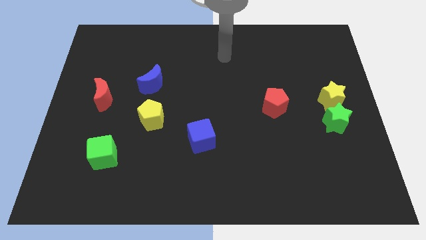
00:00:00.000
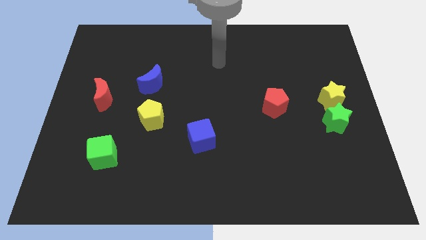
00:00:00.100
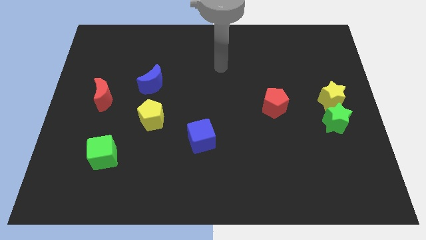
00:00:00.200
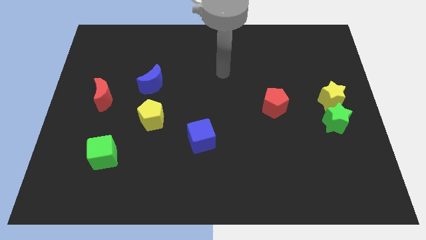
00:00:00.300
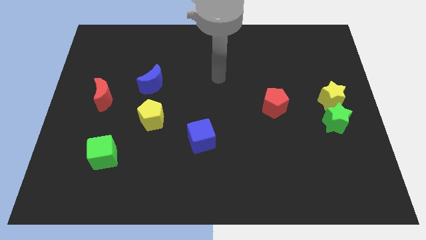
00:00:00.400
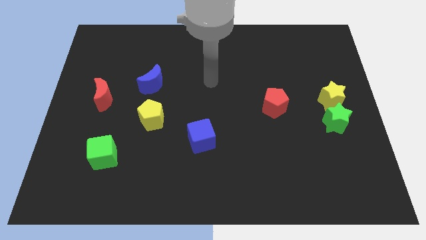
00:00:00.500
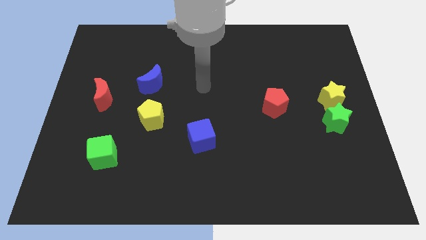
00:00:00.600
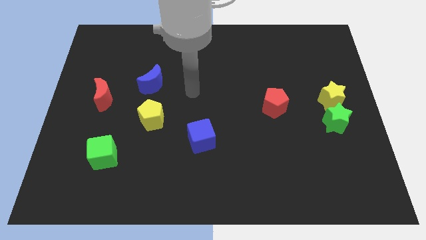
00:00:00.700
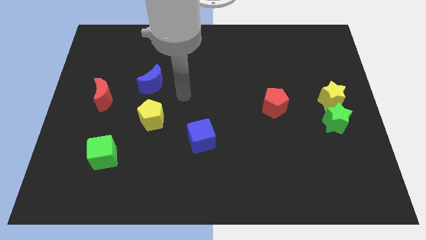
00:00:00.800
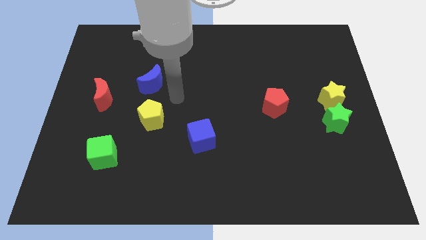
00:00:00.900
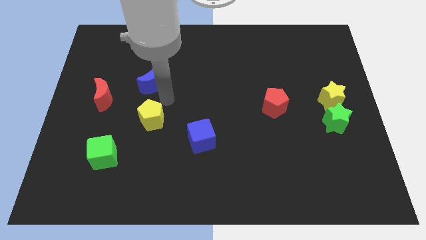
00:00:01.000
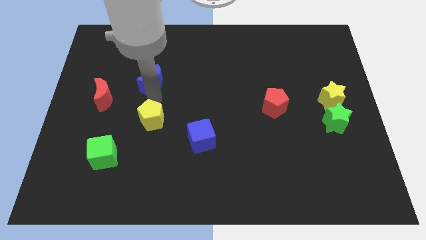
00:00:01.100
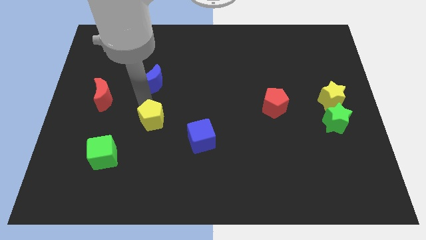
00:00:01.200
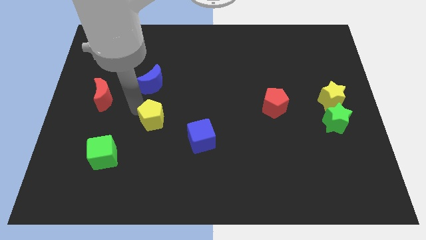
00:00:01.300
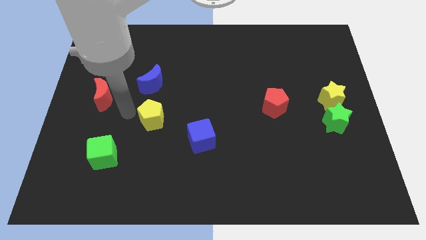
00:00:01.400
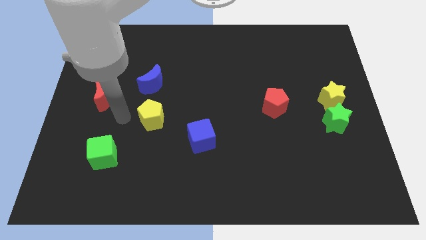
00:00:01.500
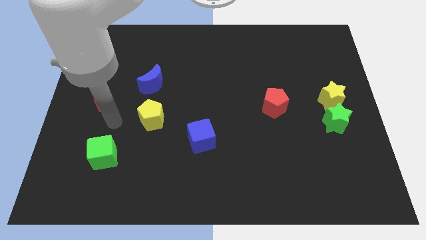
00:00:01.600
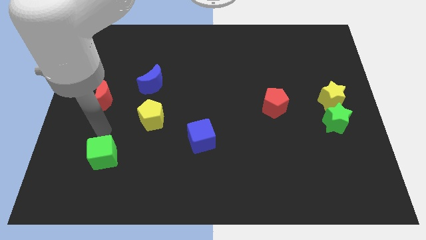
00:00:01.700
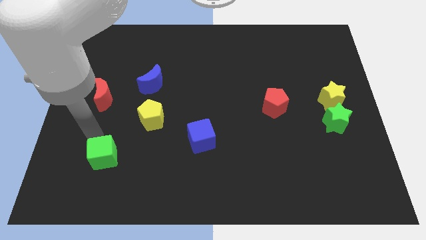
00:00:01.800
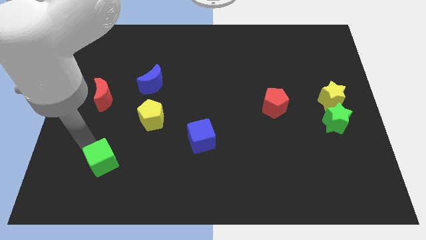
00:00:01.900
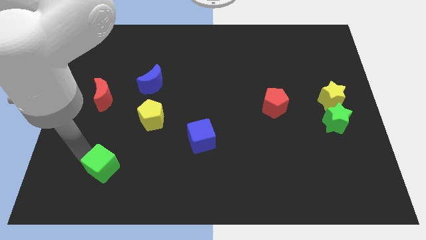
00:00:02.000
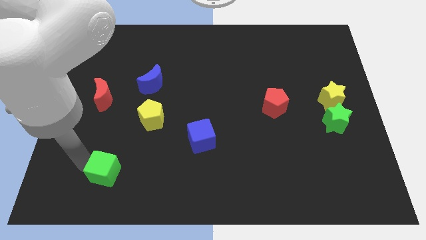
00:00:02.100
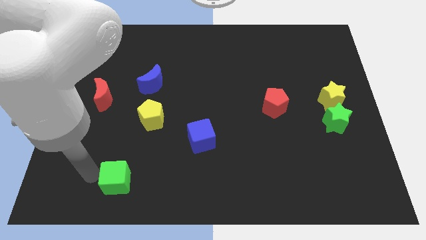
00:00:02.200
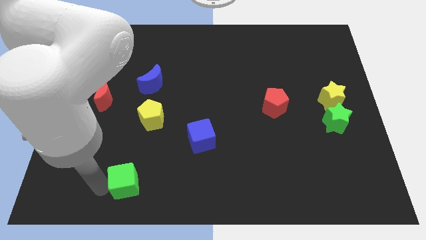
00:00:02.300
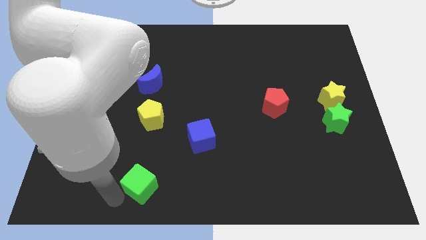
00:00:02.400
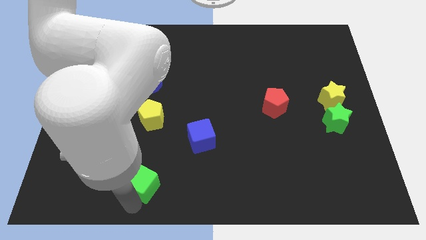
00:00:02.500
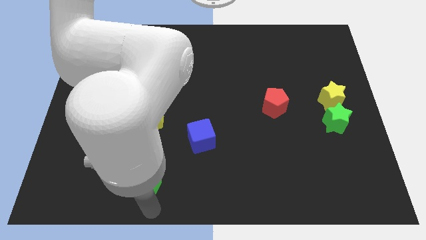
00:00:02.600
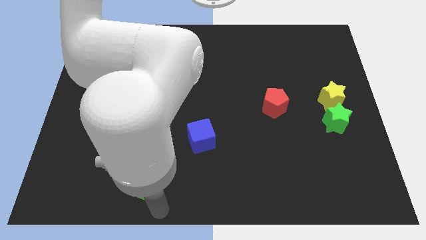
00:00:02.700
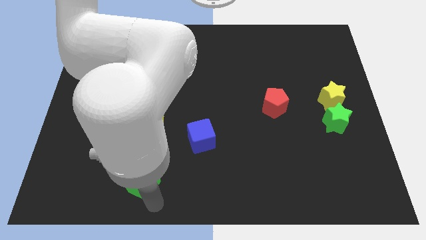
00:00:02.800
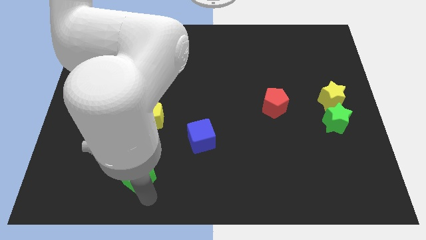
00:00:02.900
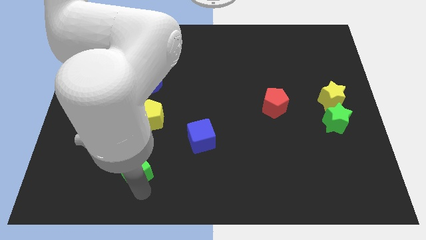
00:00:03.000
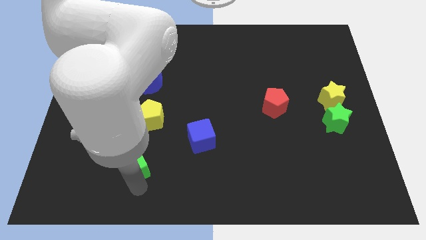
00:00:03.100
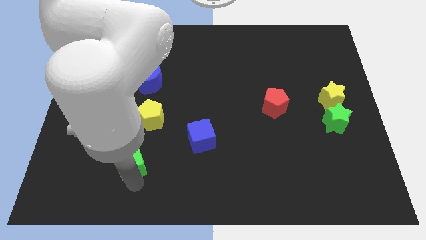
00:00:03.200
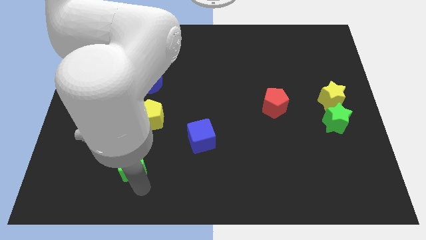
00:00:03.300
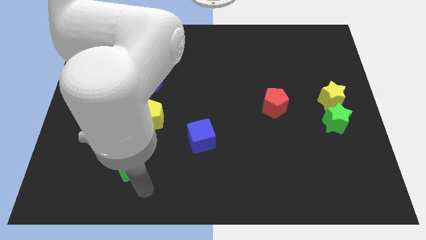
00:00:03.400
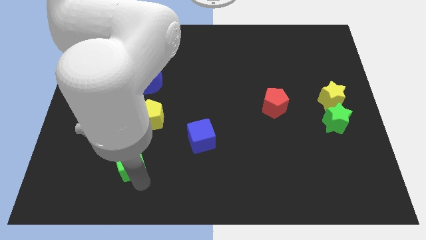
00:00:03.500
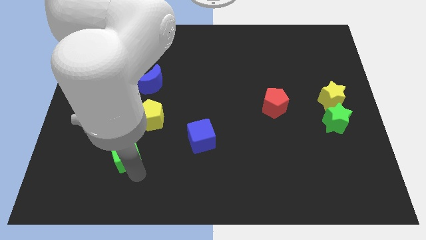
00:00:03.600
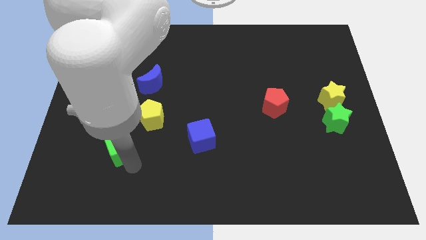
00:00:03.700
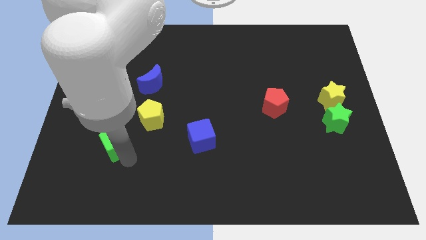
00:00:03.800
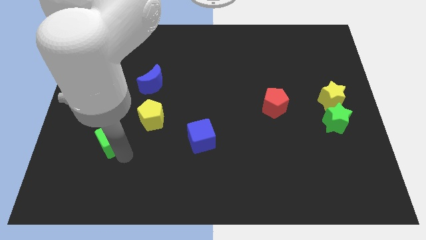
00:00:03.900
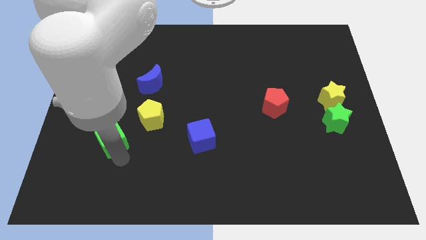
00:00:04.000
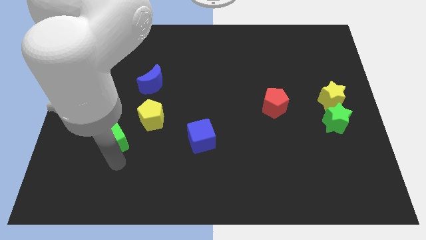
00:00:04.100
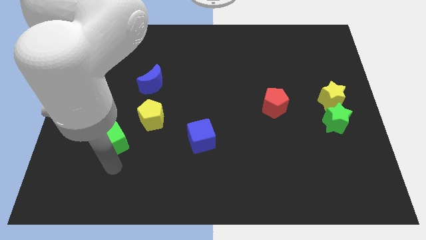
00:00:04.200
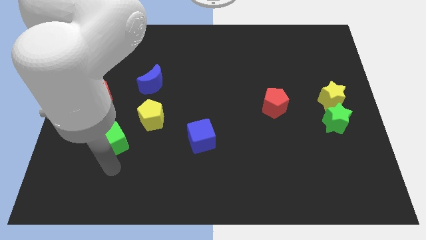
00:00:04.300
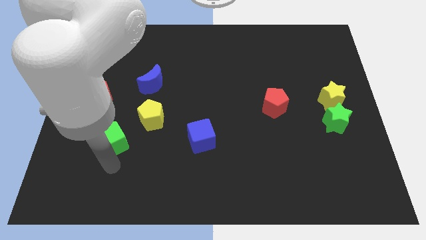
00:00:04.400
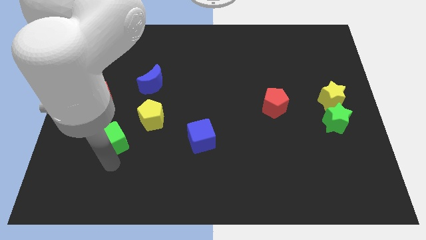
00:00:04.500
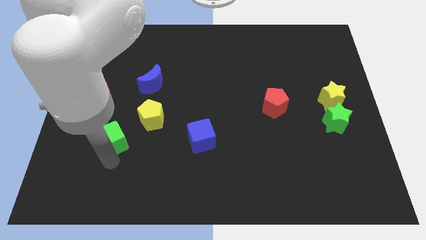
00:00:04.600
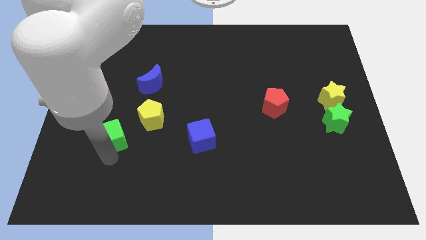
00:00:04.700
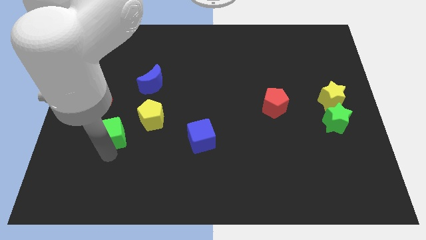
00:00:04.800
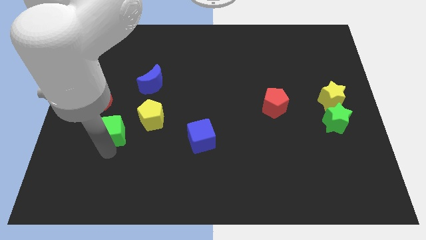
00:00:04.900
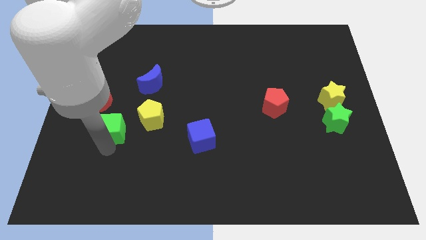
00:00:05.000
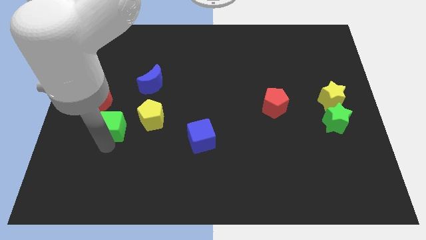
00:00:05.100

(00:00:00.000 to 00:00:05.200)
move the green cube upwards a little bit

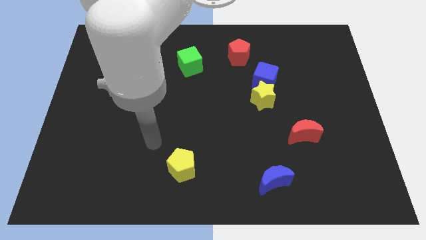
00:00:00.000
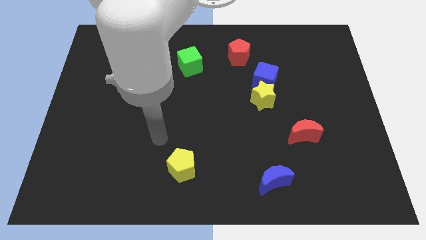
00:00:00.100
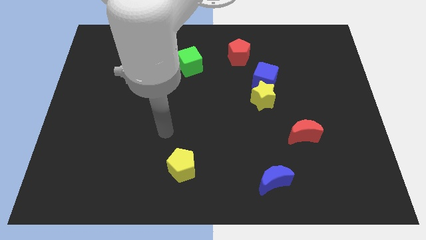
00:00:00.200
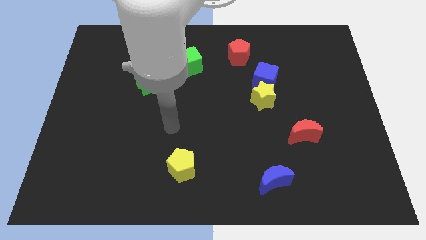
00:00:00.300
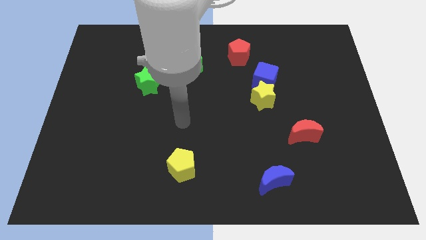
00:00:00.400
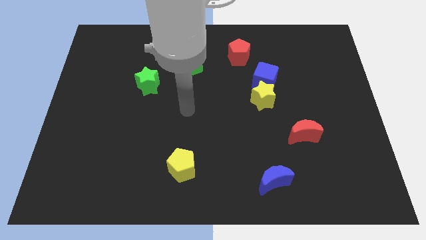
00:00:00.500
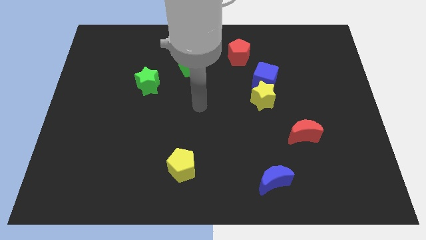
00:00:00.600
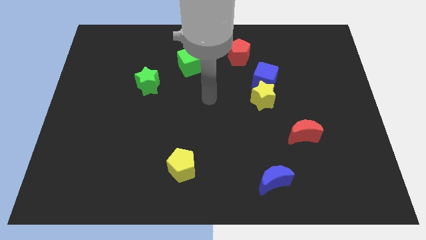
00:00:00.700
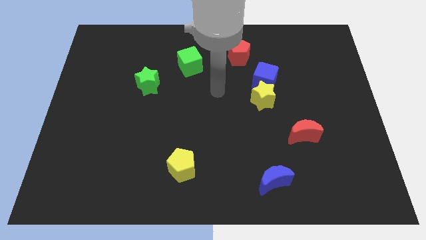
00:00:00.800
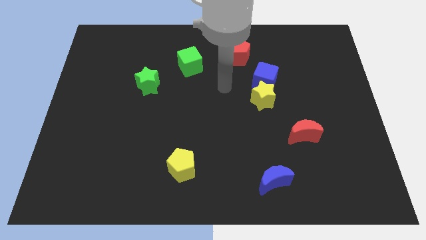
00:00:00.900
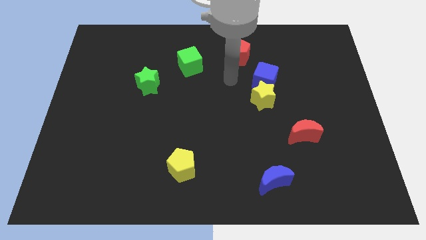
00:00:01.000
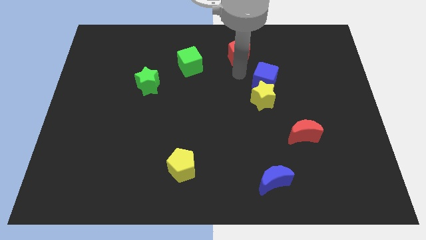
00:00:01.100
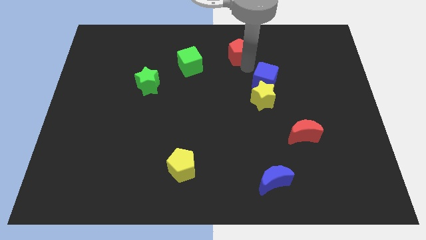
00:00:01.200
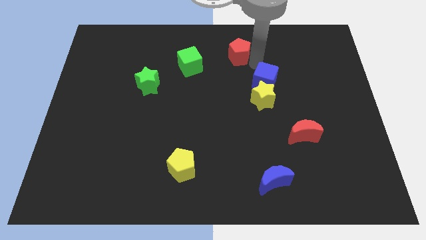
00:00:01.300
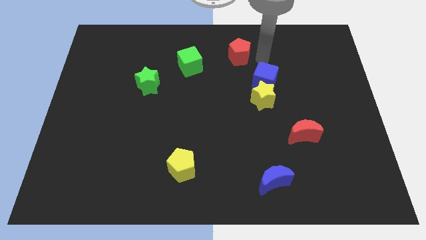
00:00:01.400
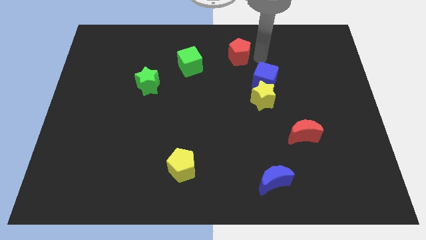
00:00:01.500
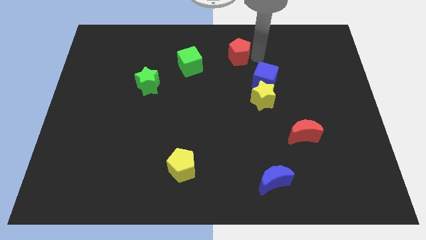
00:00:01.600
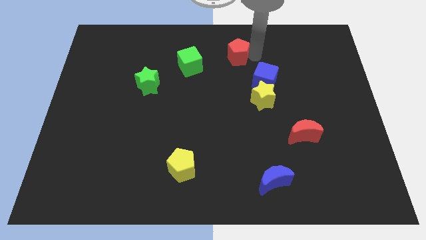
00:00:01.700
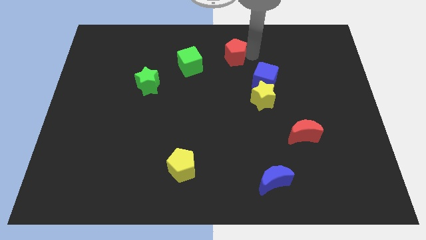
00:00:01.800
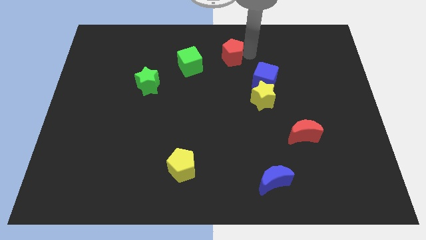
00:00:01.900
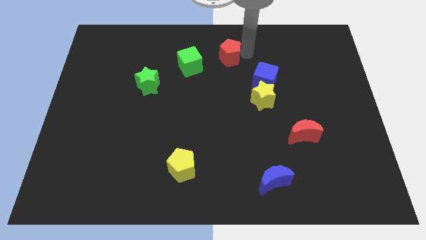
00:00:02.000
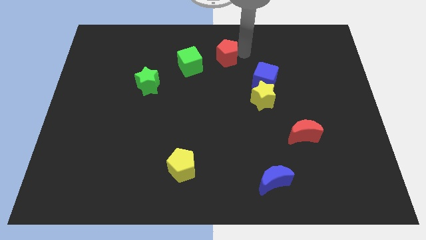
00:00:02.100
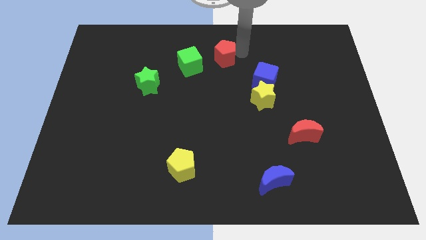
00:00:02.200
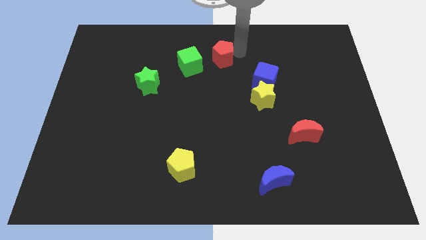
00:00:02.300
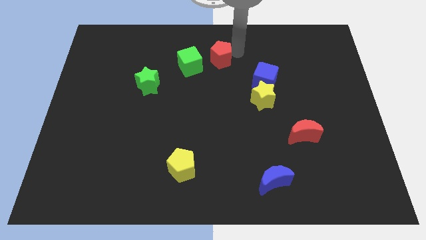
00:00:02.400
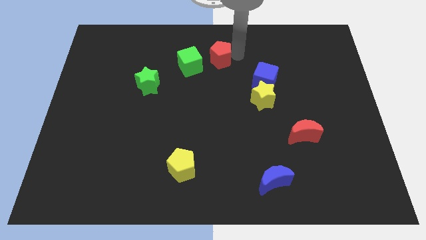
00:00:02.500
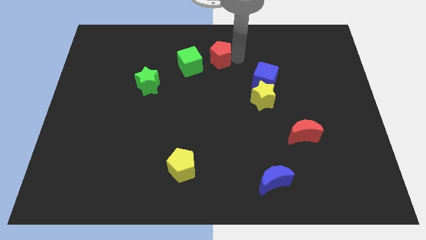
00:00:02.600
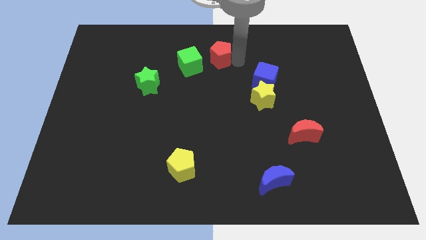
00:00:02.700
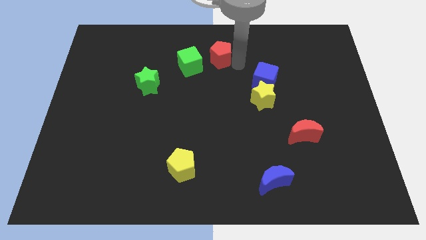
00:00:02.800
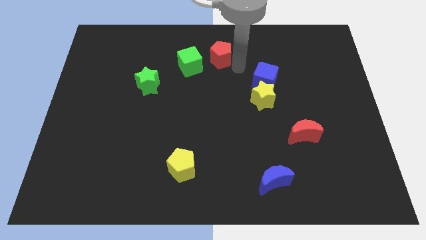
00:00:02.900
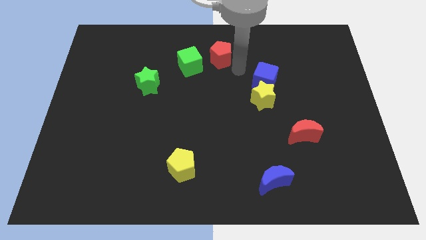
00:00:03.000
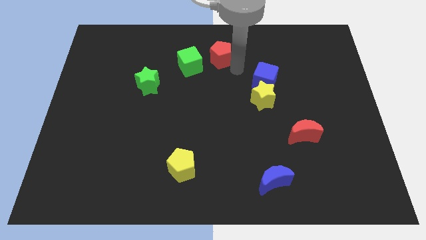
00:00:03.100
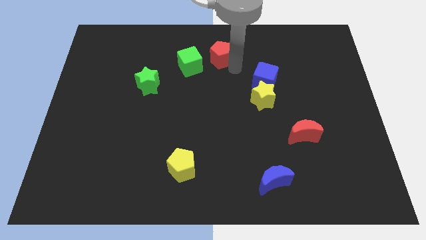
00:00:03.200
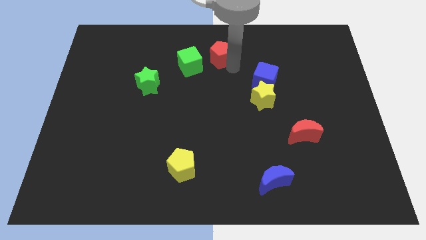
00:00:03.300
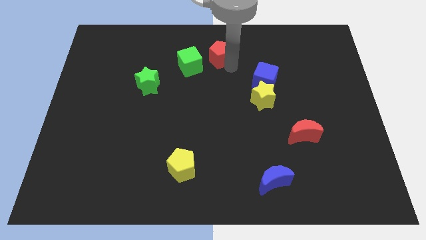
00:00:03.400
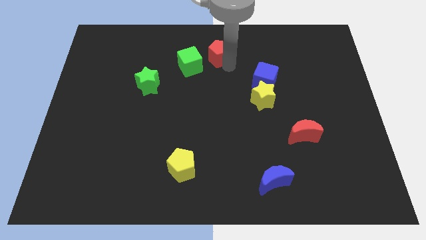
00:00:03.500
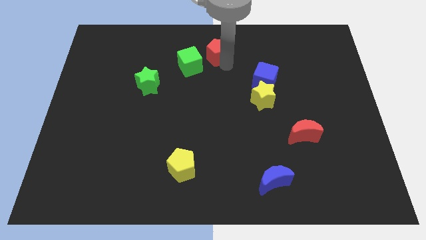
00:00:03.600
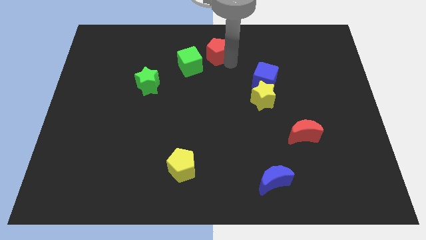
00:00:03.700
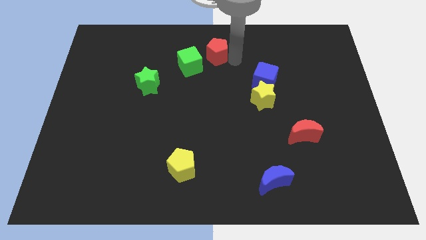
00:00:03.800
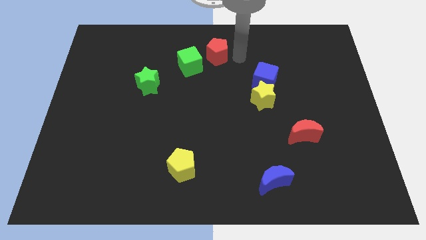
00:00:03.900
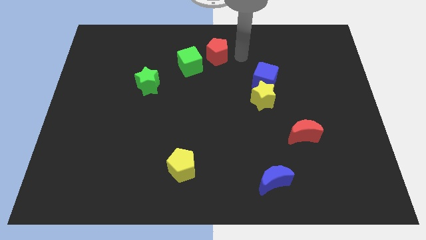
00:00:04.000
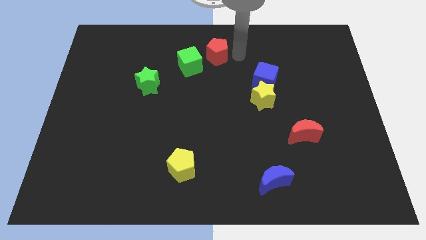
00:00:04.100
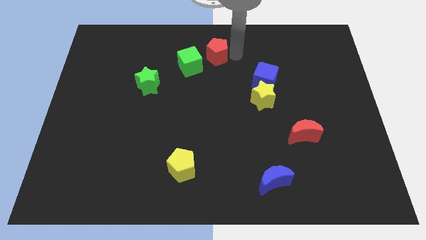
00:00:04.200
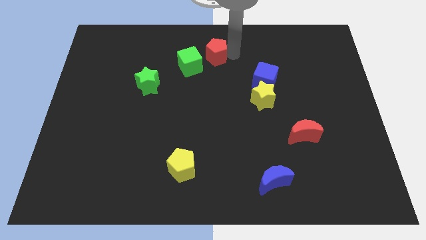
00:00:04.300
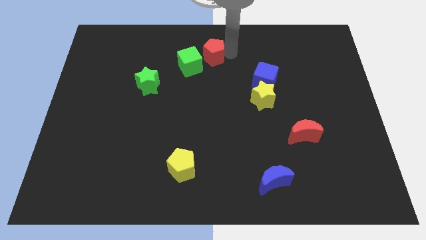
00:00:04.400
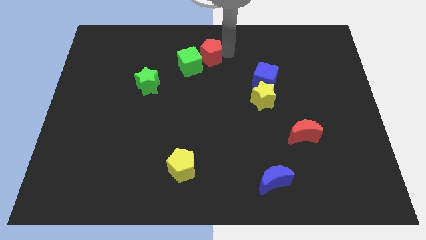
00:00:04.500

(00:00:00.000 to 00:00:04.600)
slightly push the red pentagon to the left
